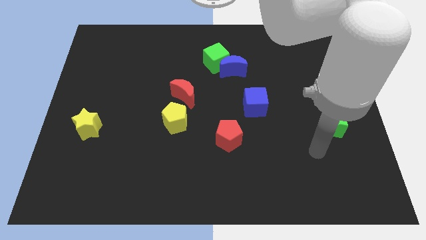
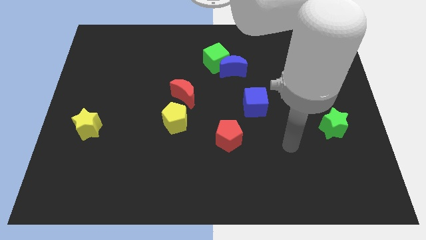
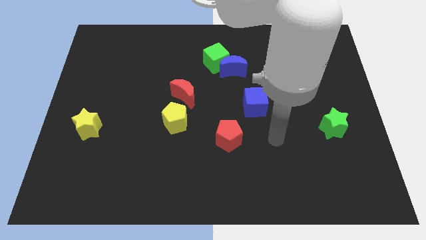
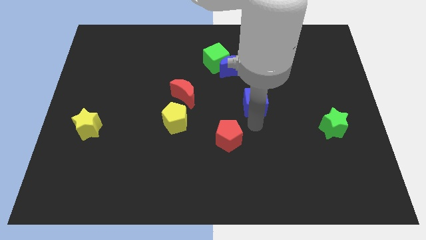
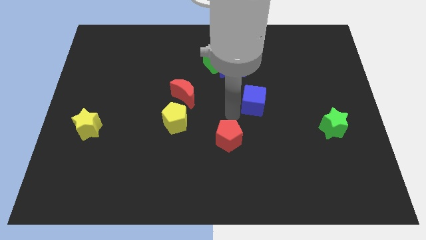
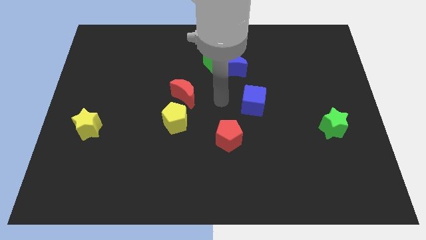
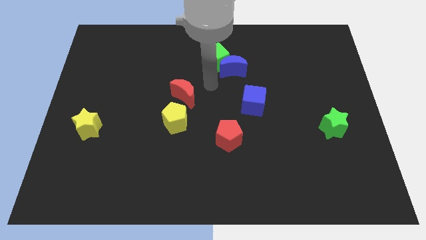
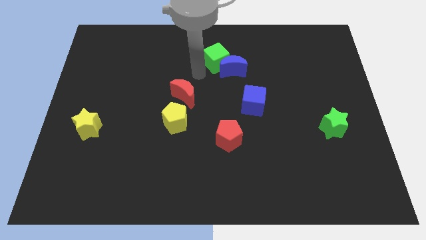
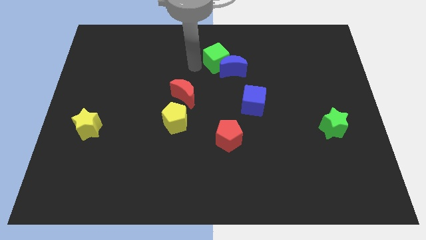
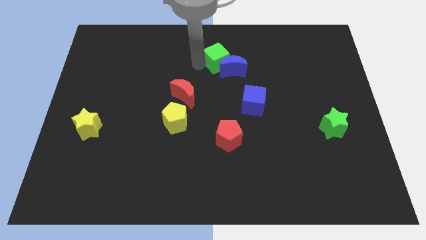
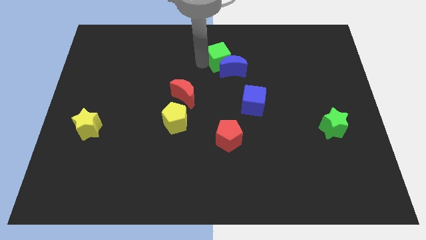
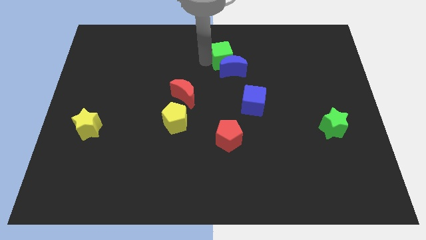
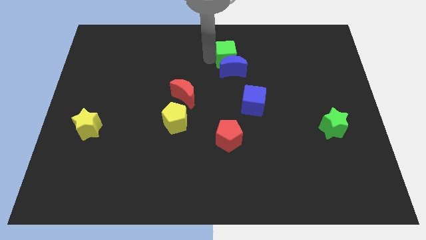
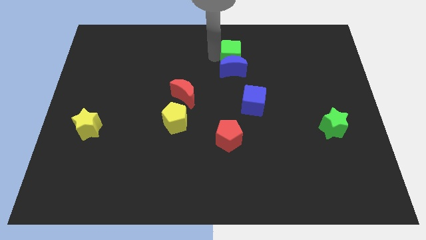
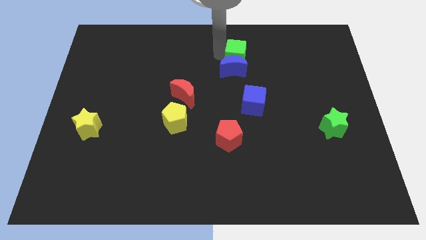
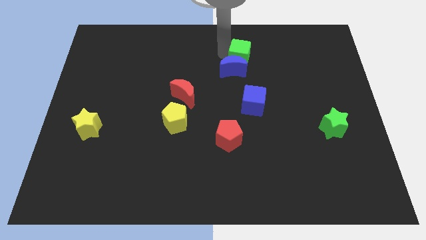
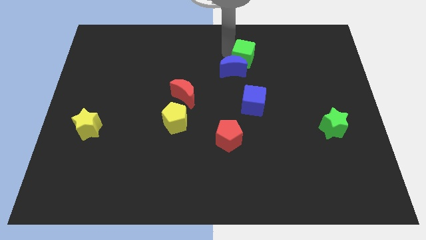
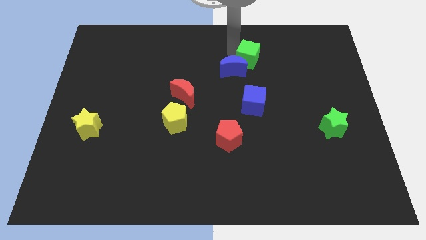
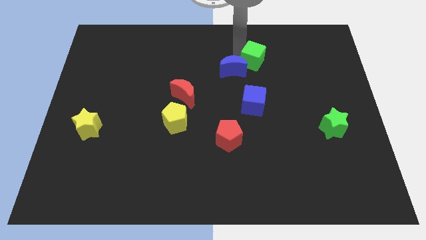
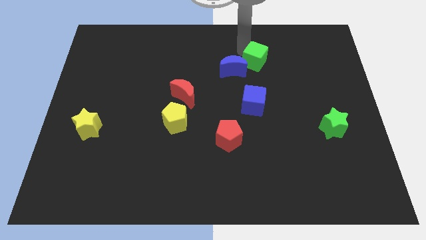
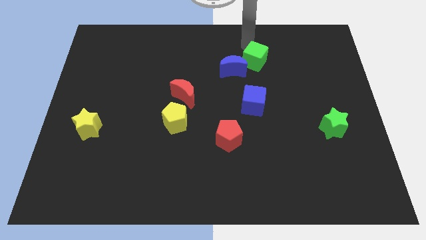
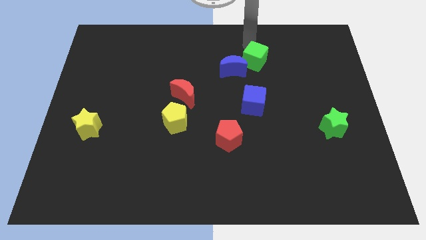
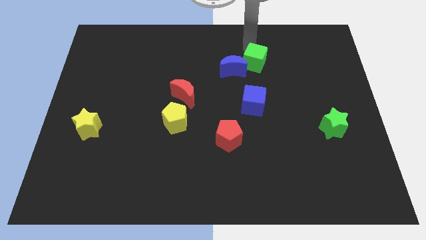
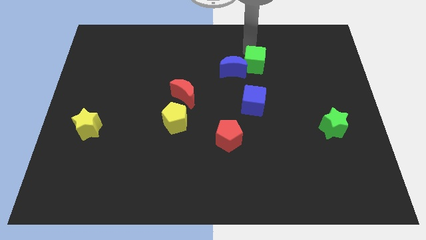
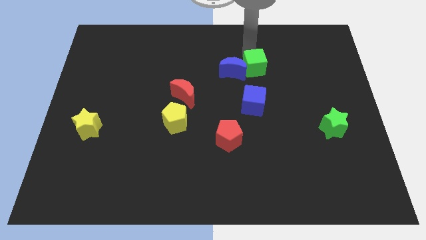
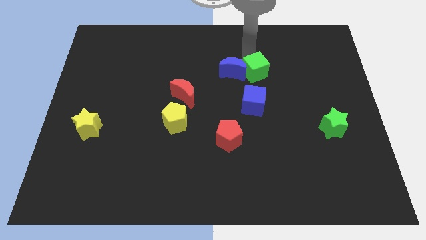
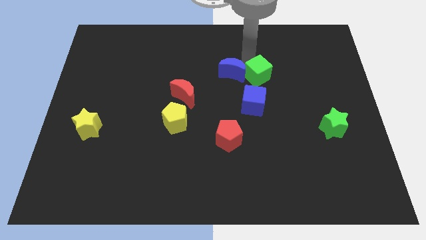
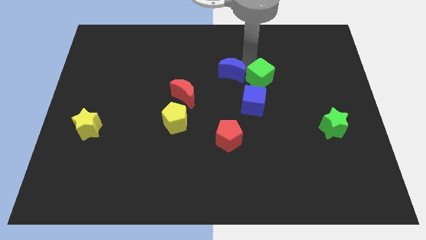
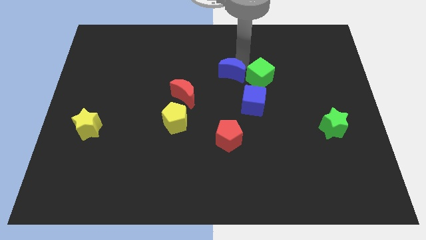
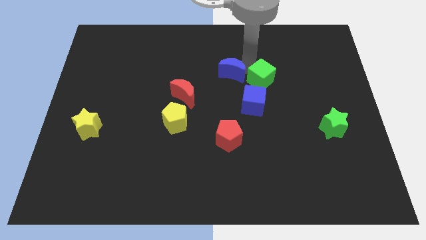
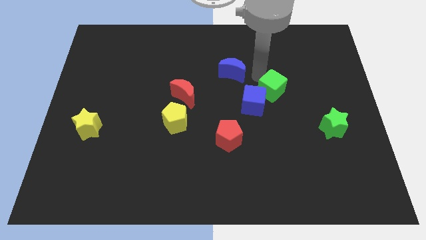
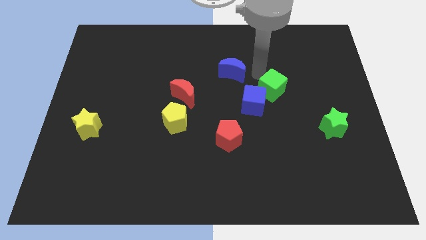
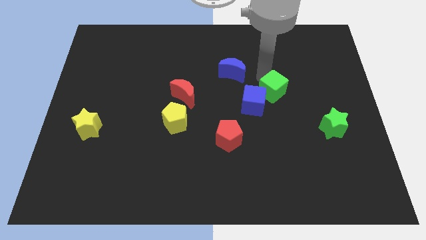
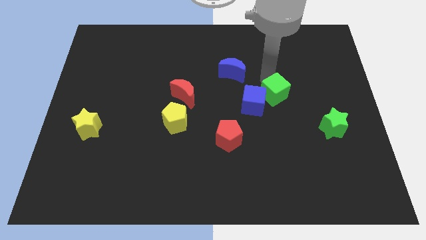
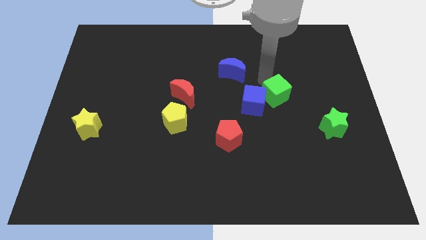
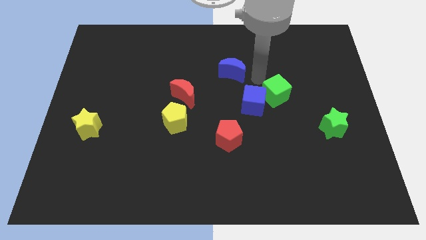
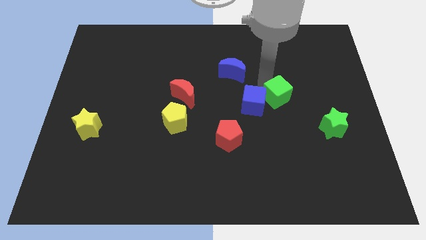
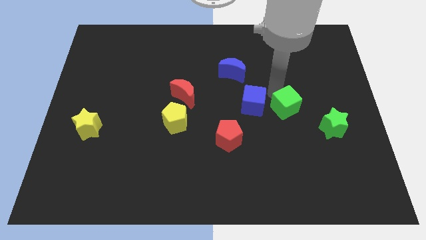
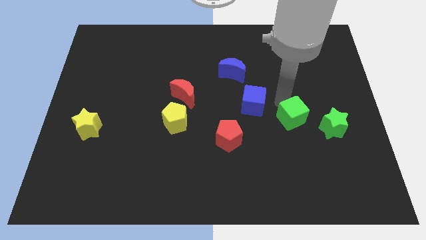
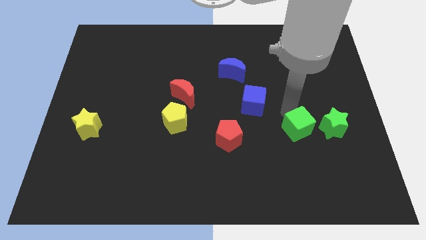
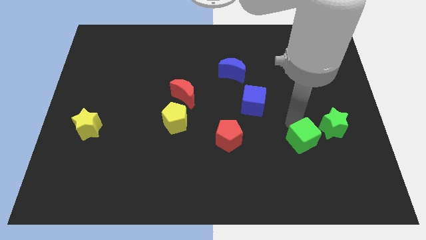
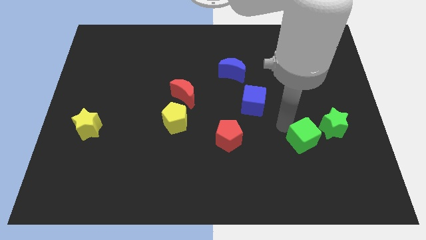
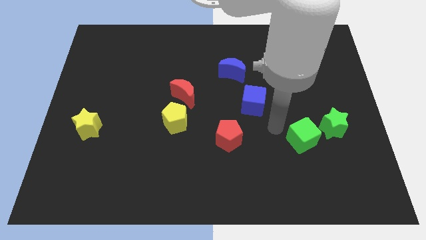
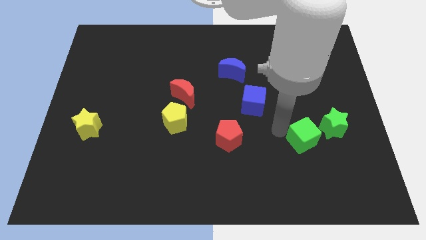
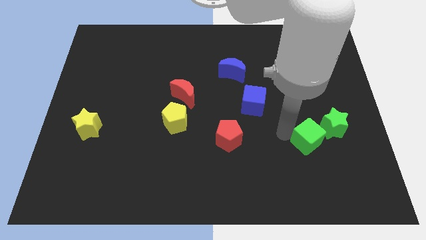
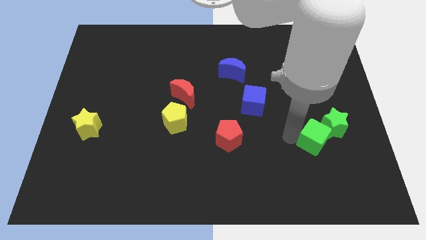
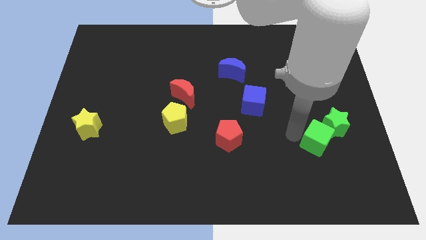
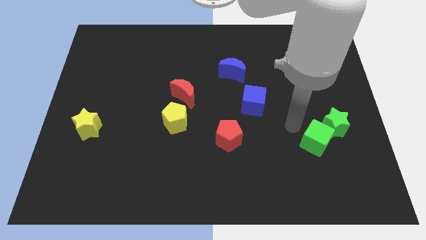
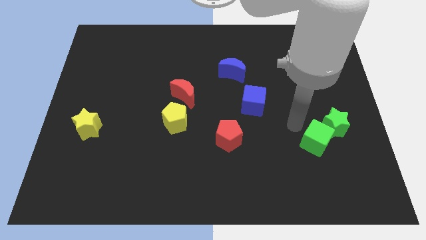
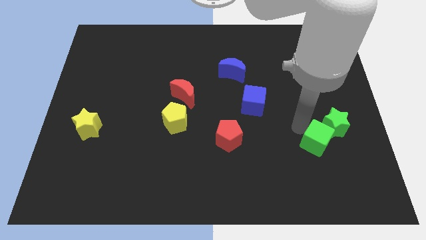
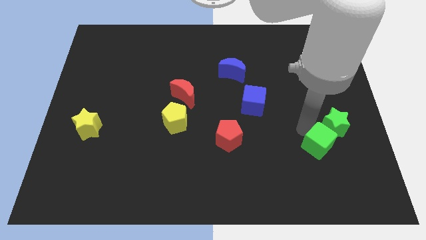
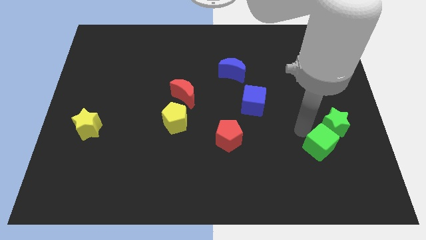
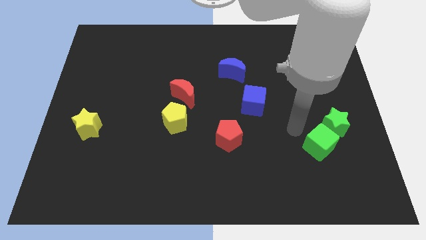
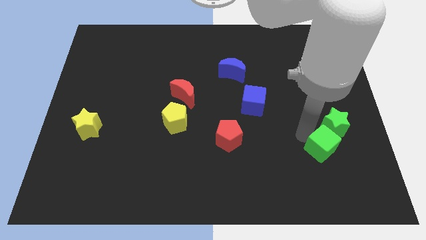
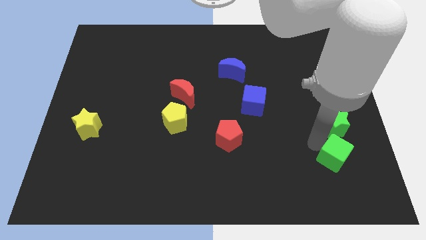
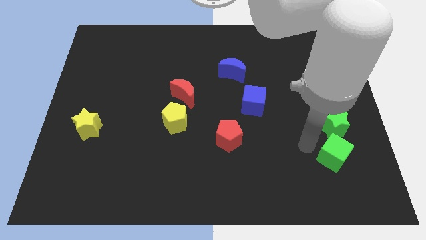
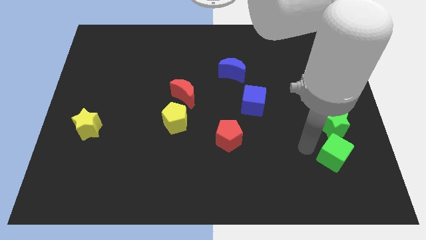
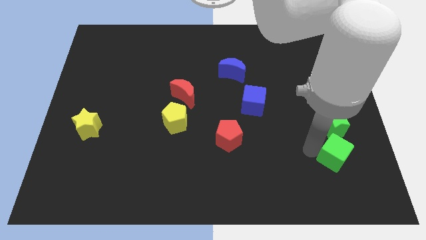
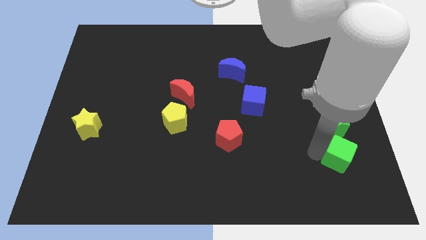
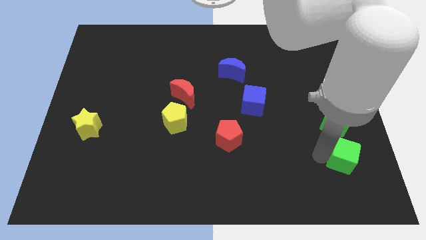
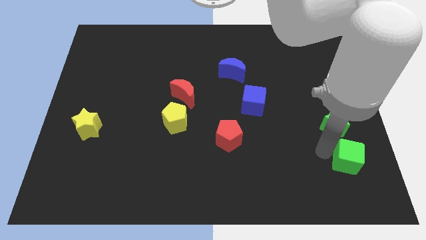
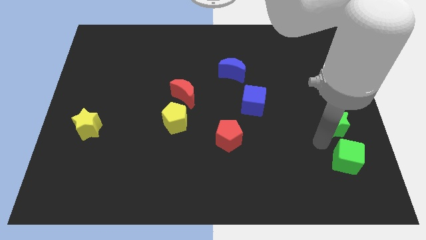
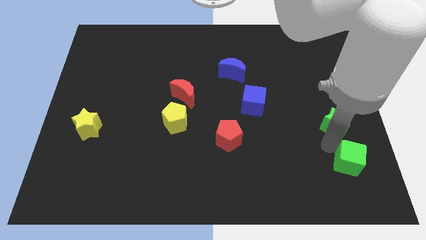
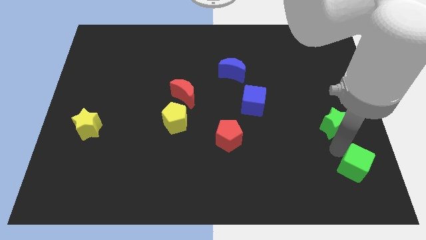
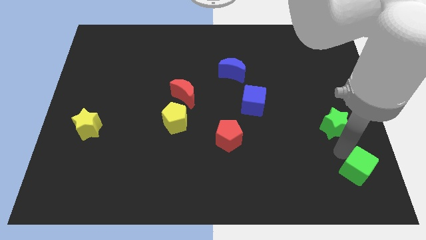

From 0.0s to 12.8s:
push the green cube to the bottom right of the board

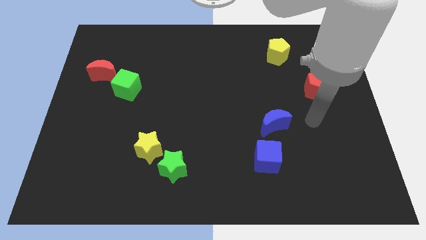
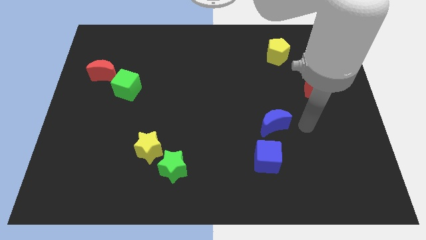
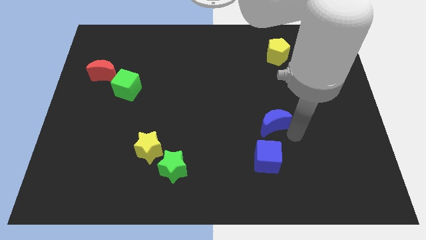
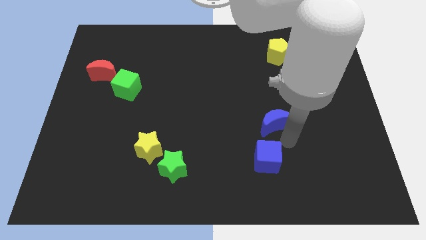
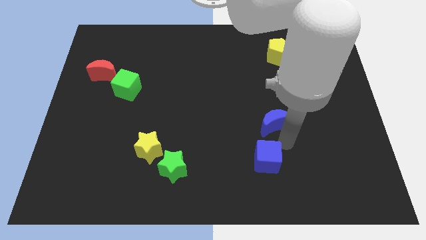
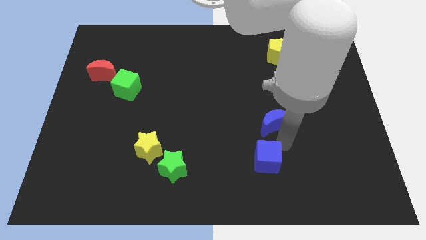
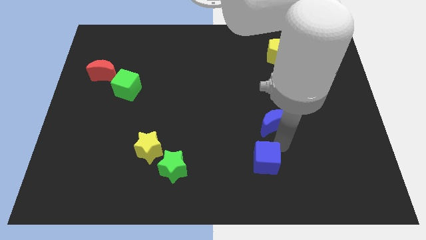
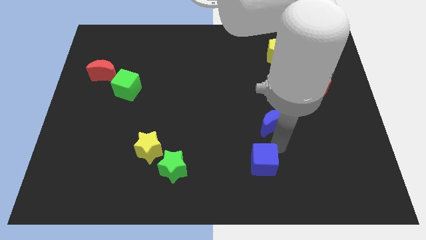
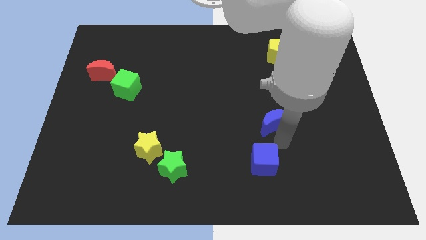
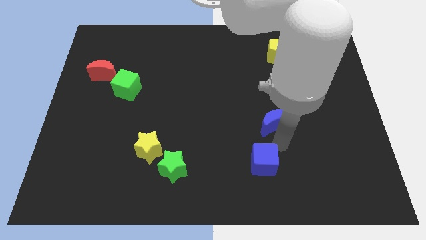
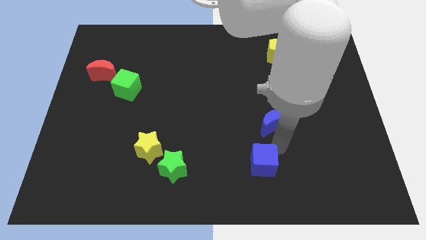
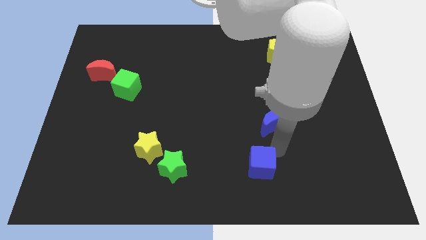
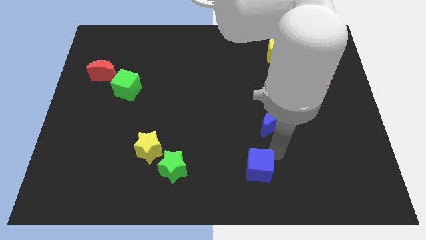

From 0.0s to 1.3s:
put the blue cube to the bottom side
